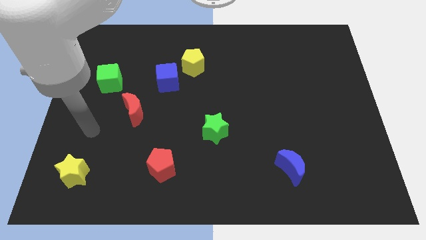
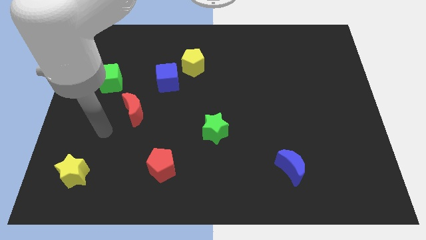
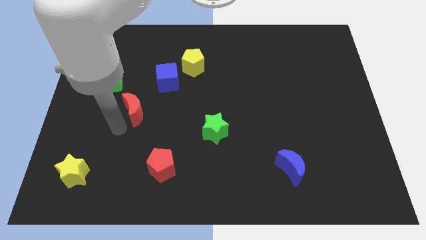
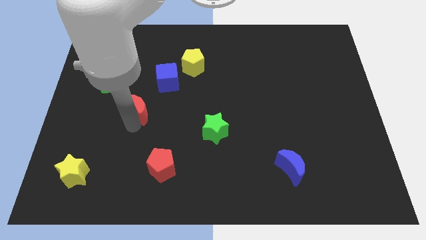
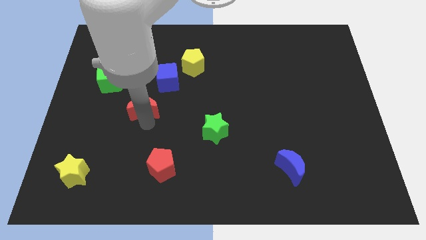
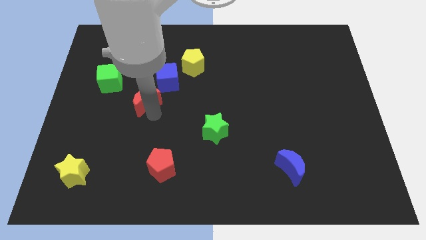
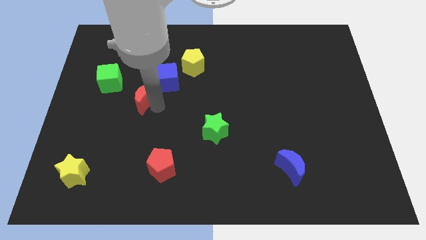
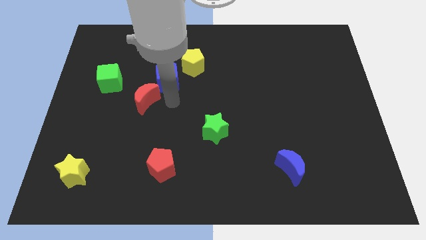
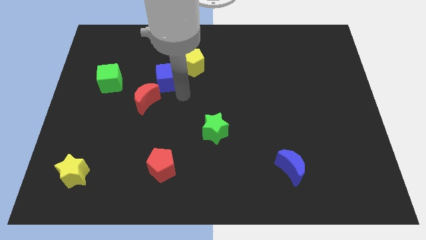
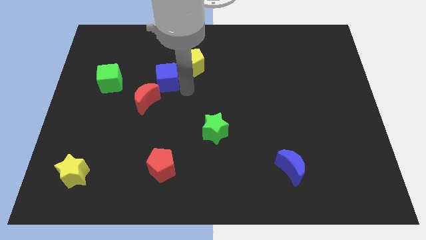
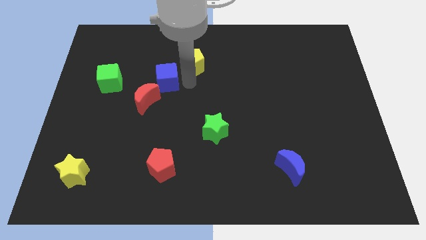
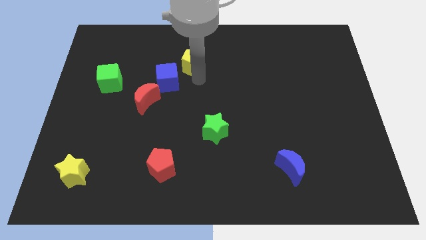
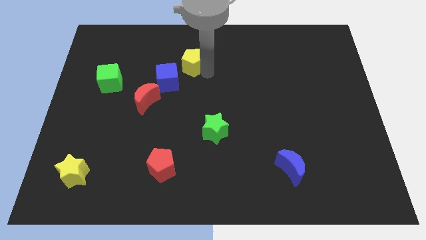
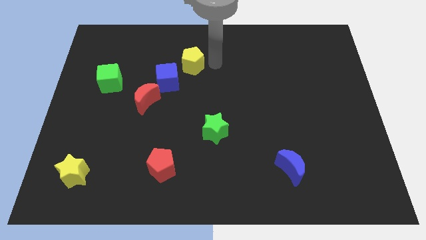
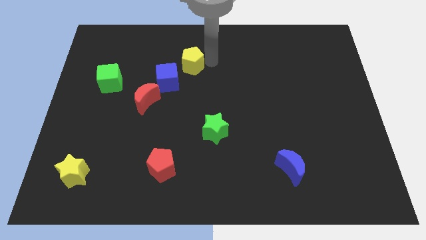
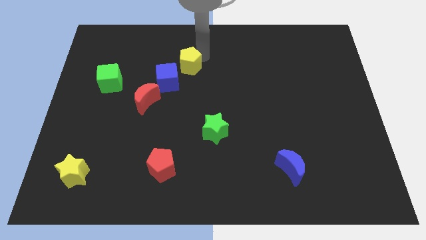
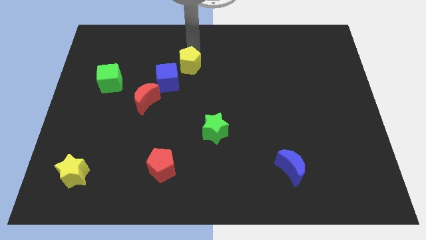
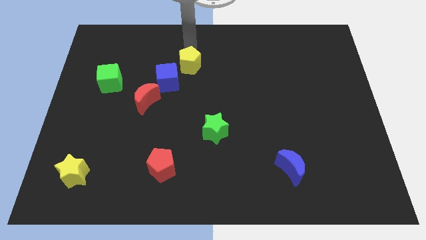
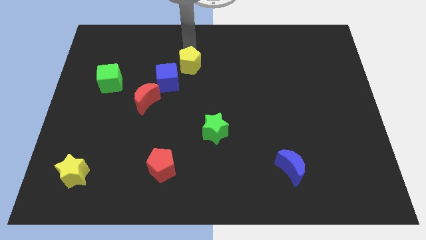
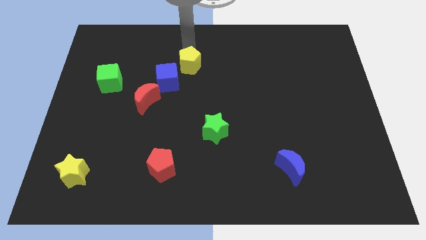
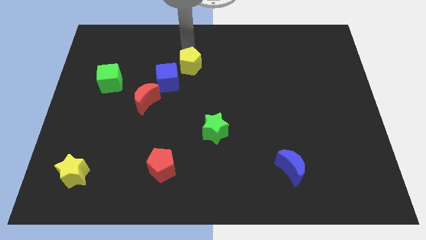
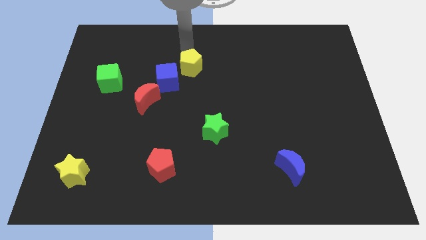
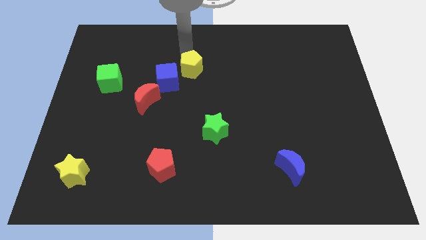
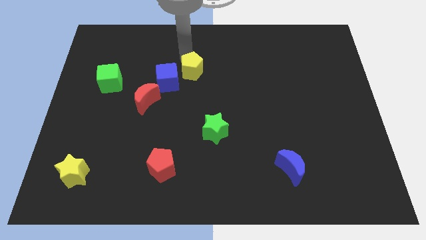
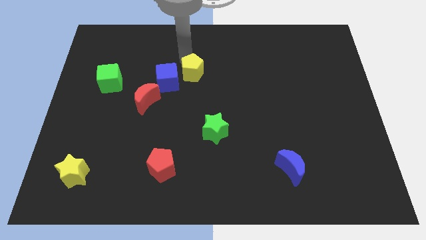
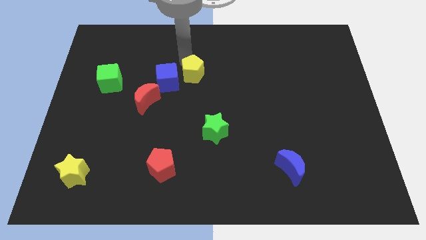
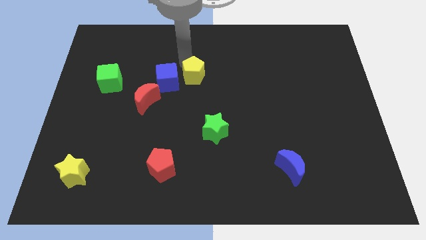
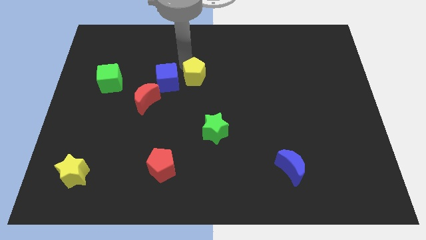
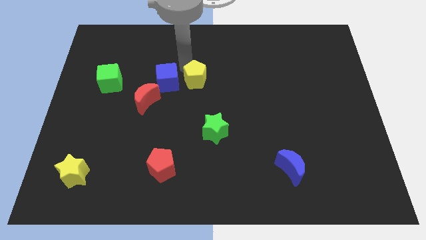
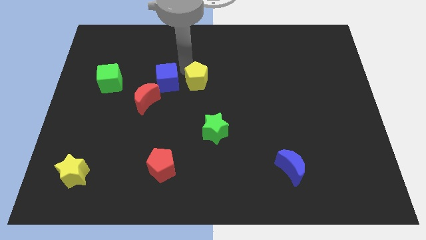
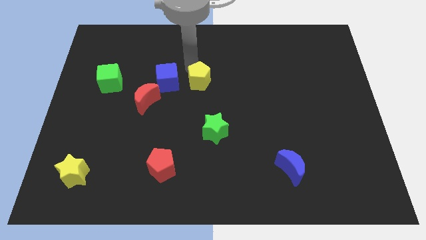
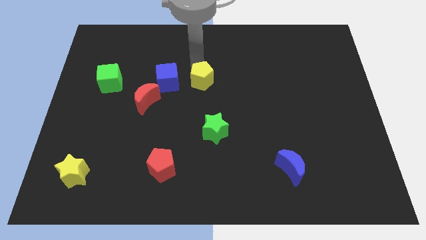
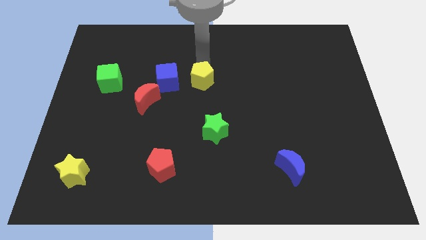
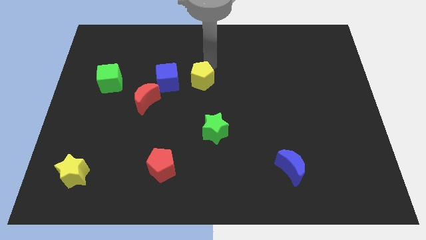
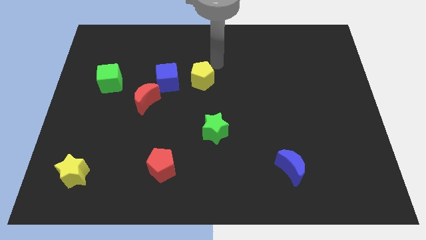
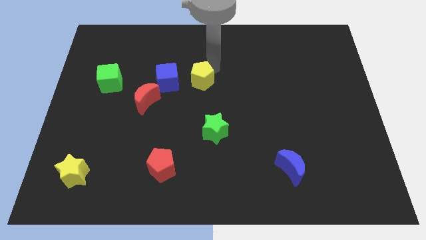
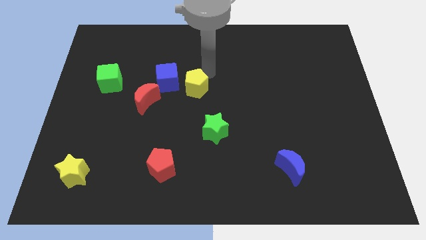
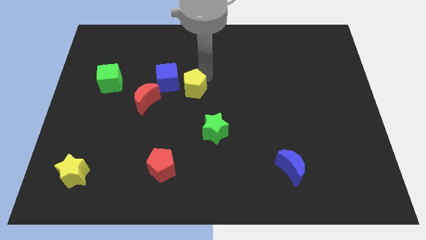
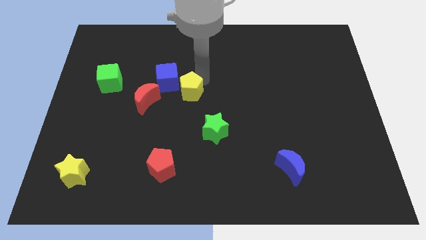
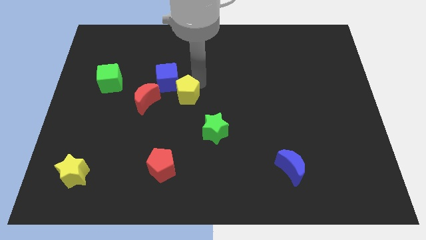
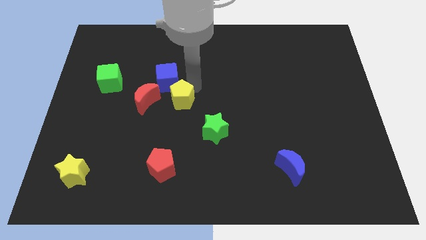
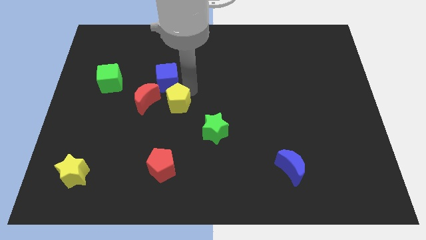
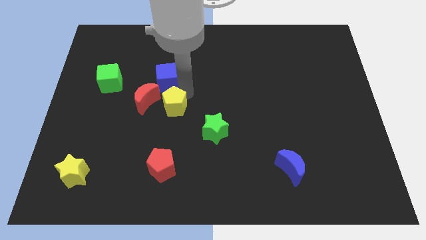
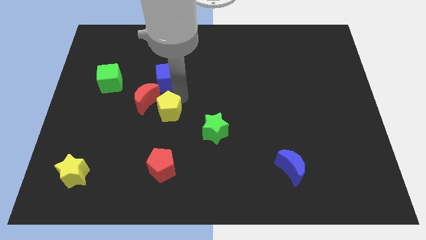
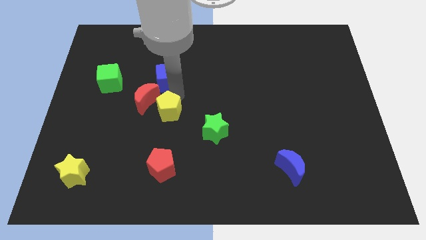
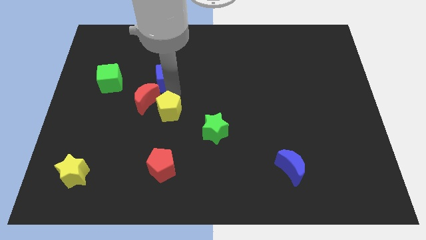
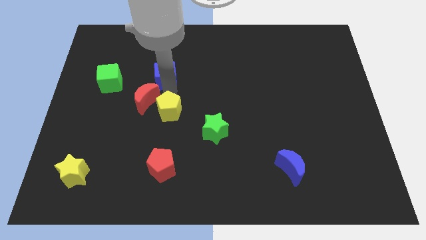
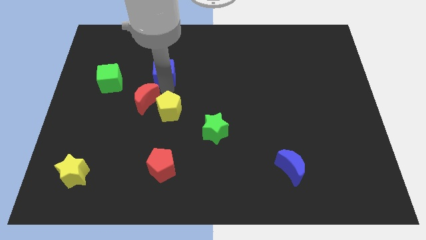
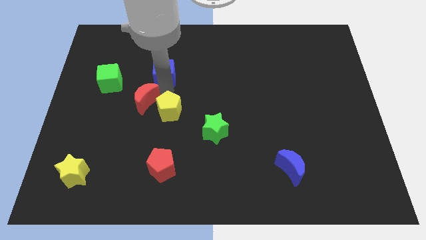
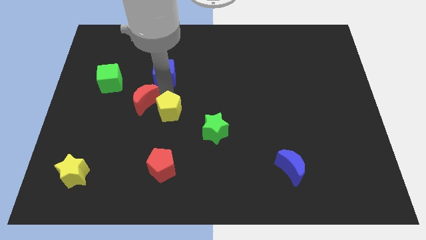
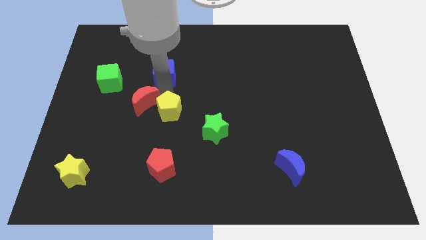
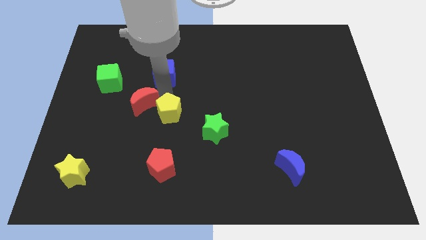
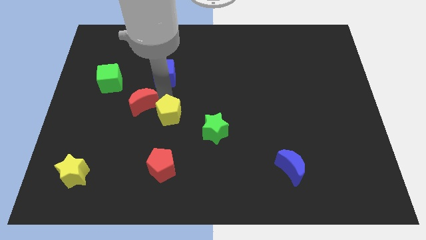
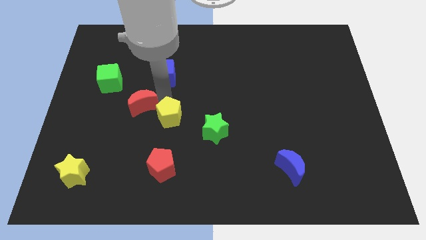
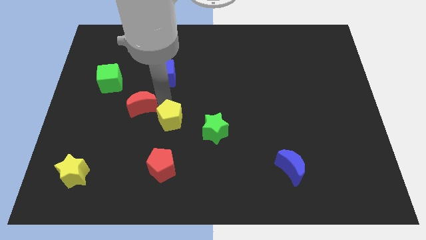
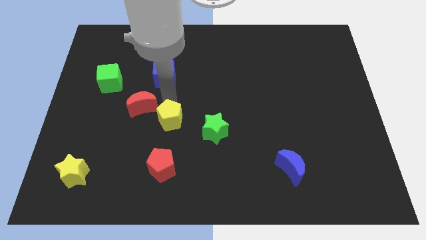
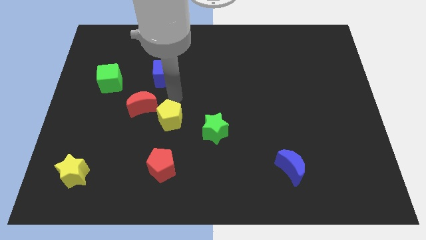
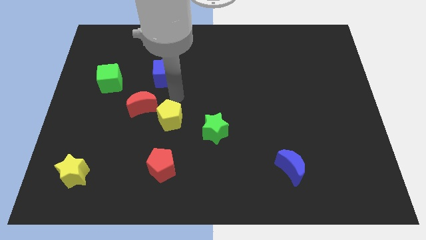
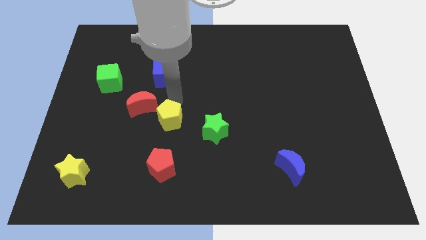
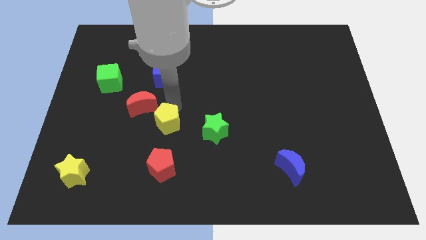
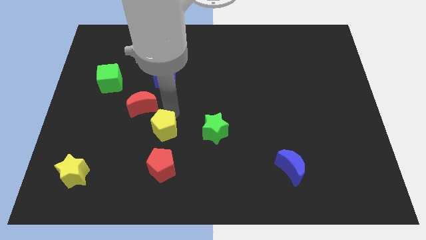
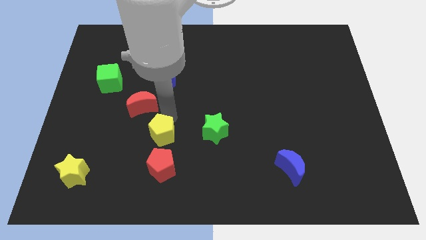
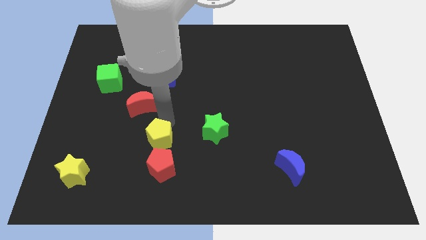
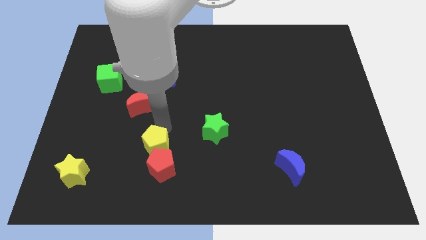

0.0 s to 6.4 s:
slide the yellow pentagon to the red pentagon

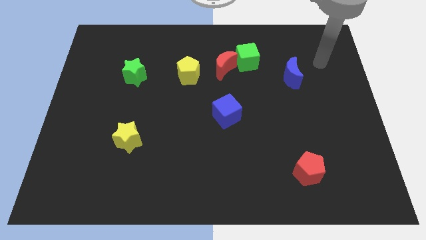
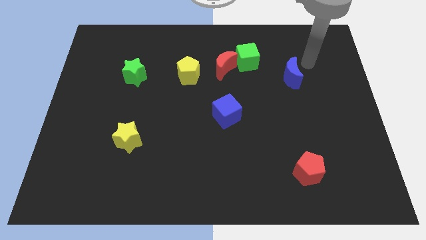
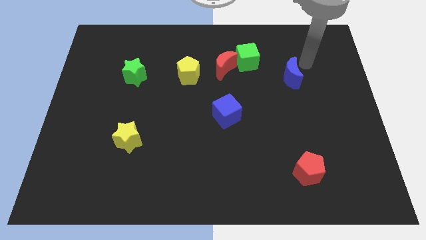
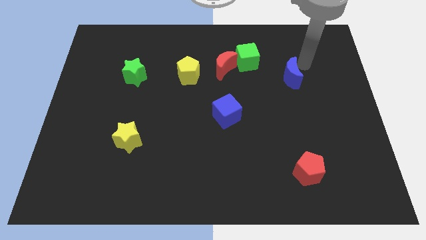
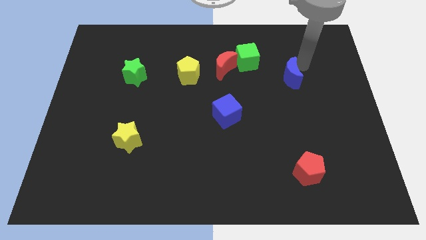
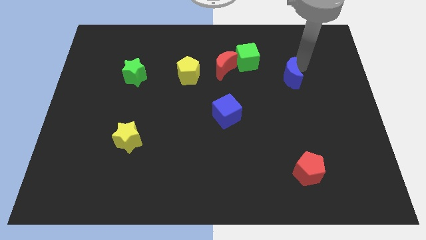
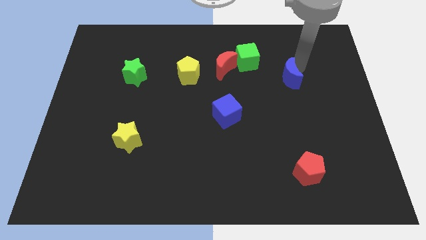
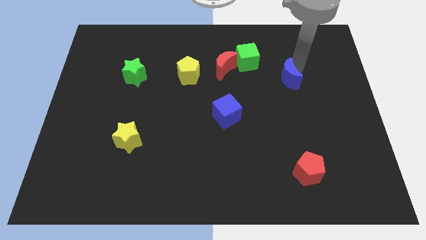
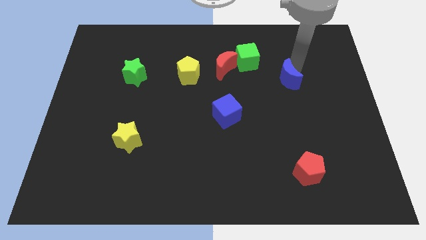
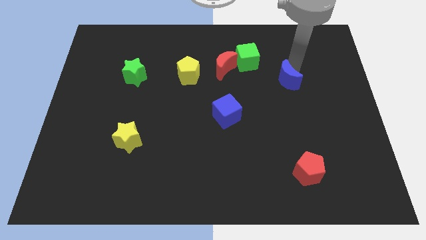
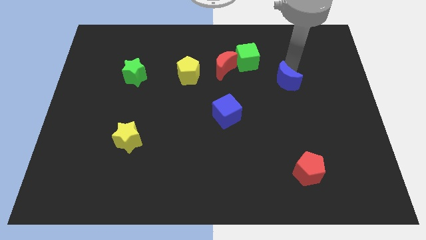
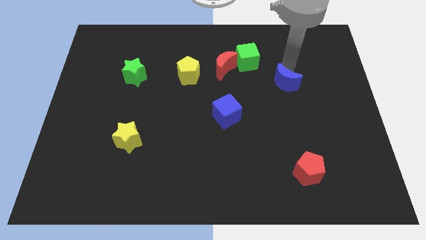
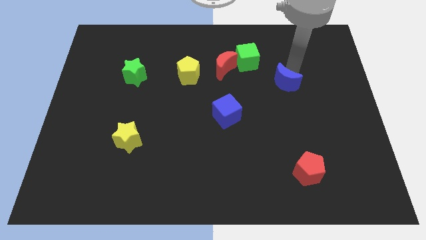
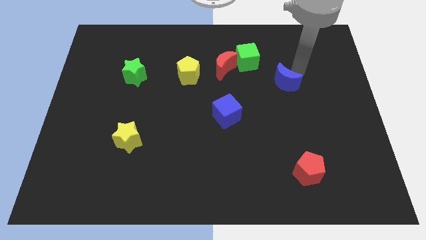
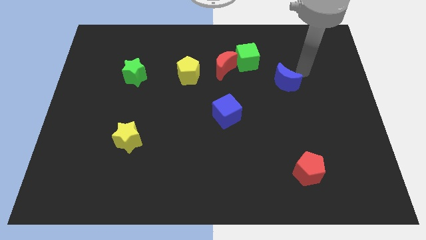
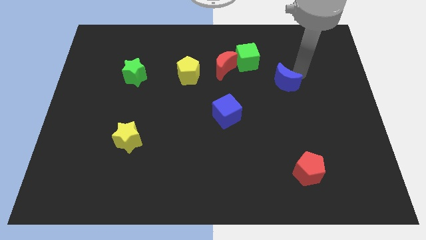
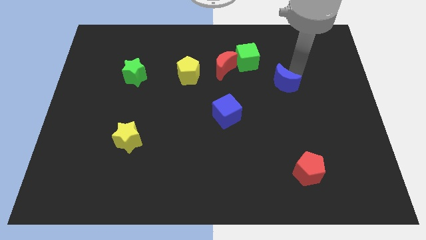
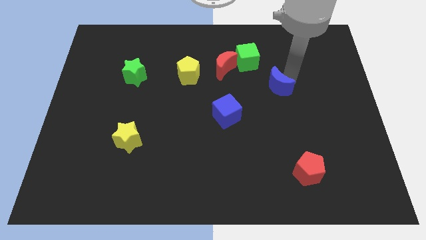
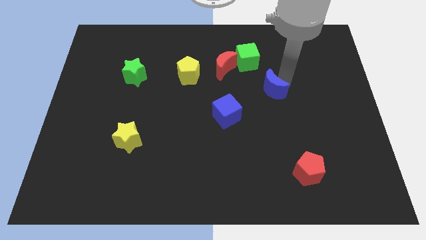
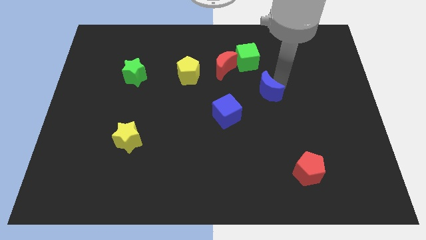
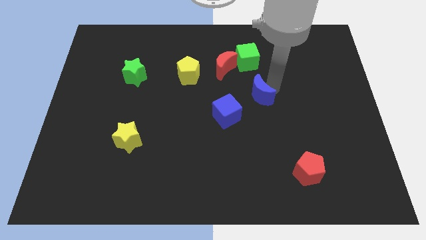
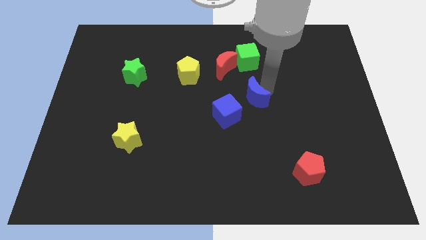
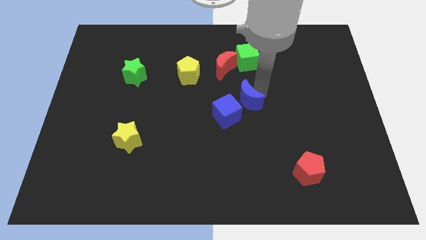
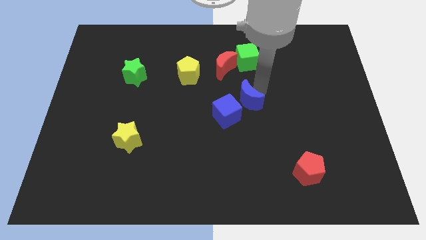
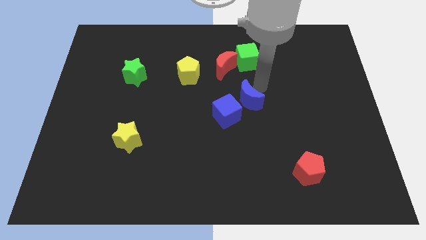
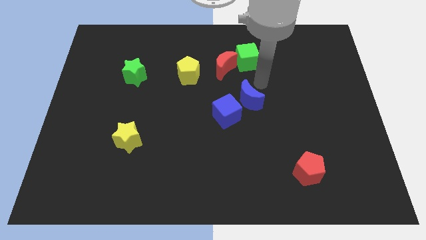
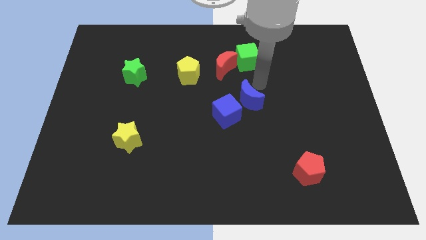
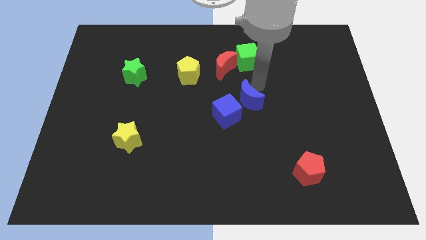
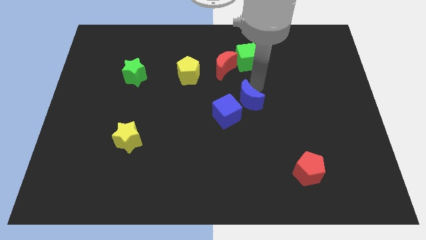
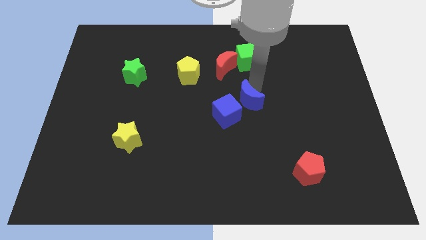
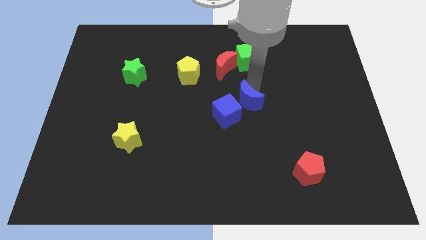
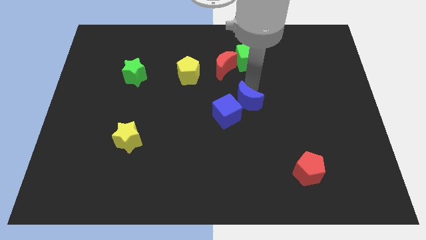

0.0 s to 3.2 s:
push the blue moon next to the blue cube
